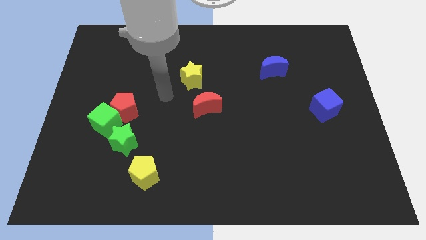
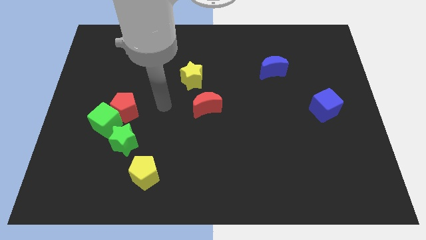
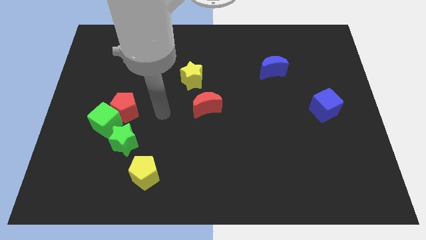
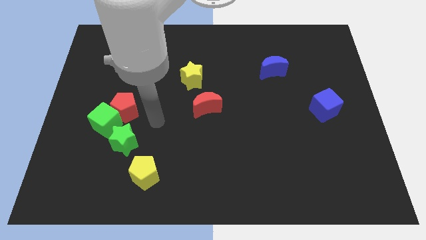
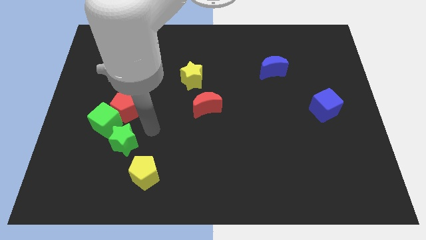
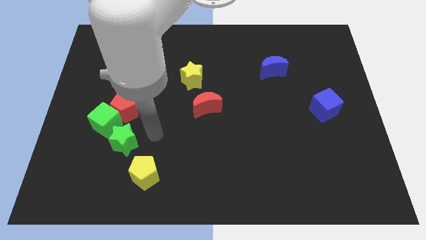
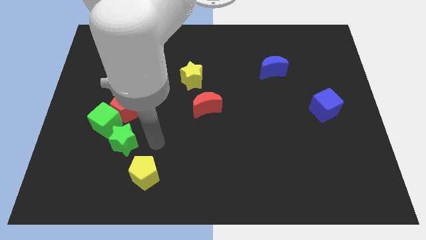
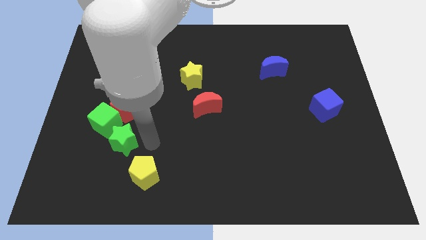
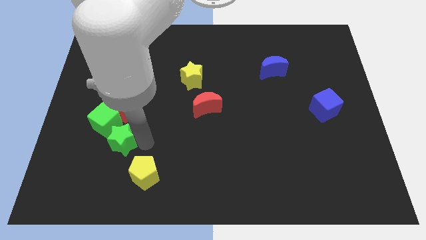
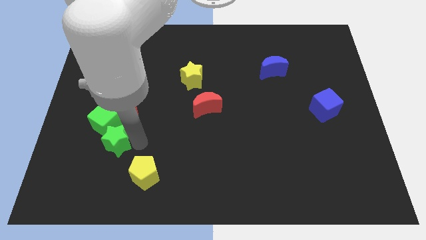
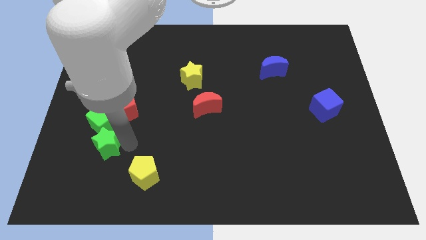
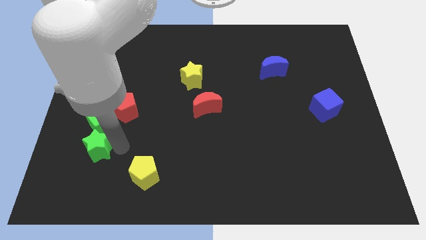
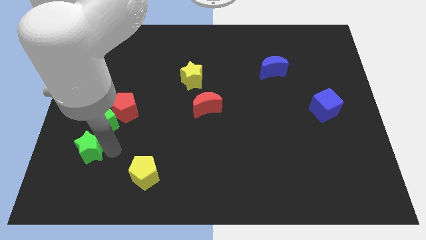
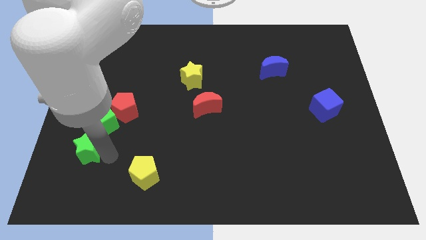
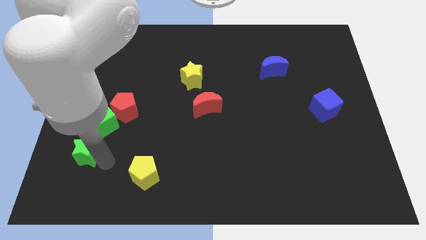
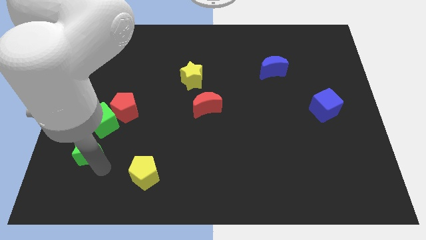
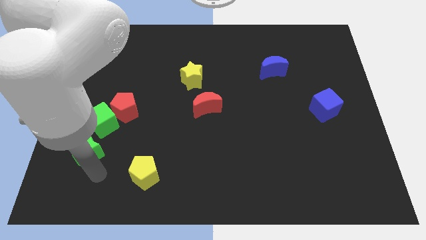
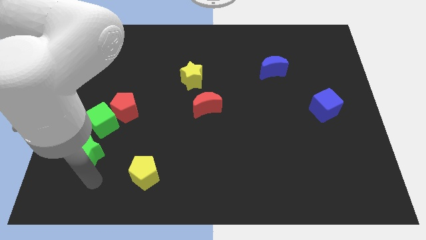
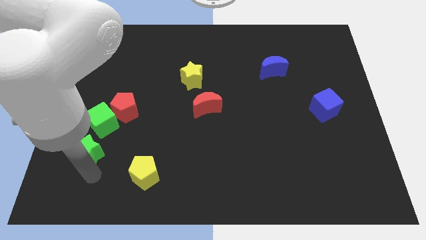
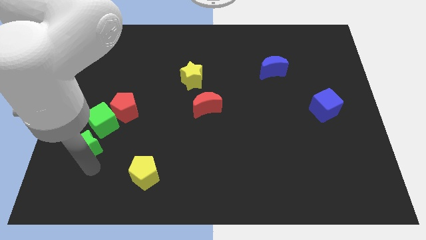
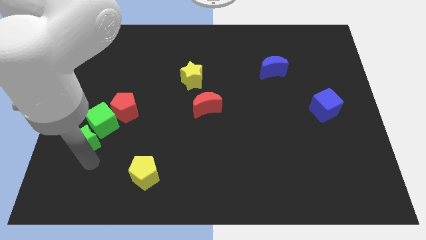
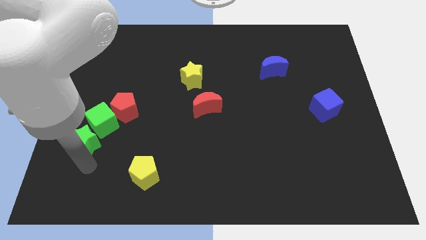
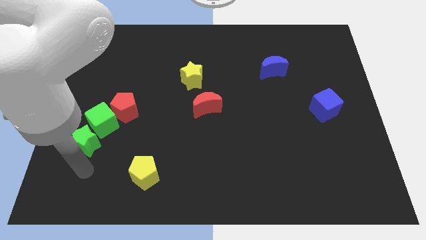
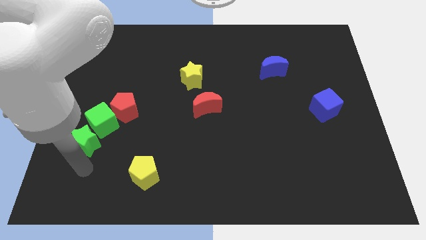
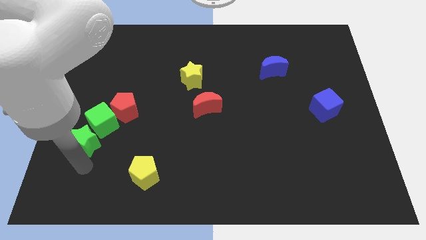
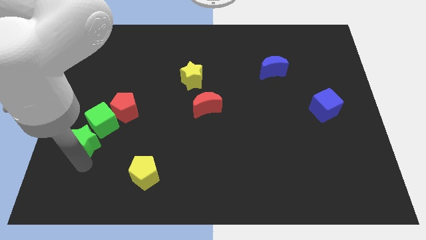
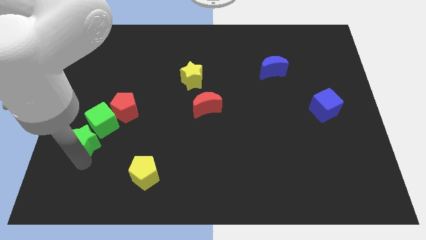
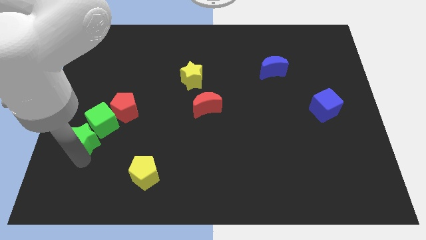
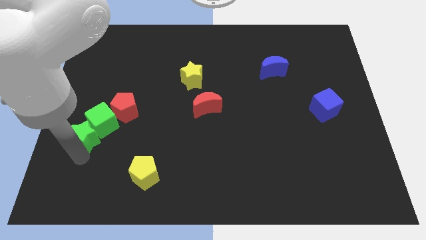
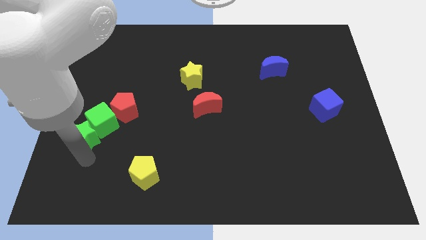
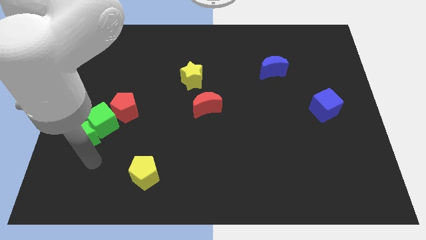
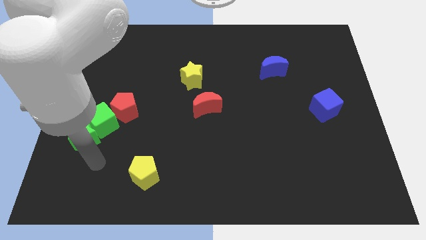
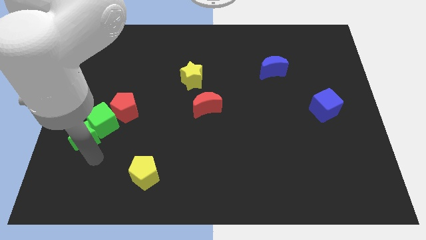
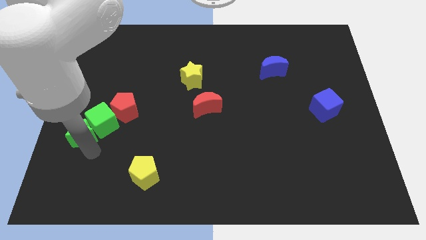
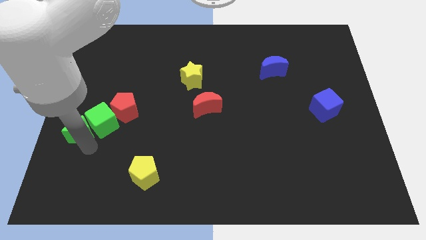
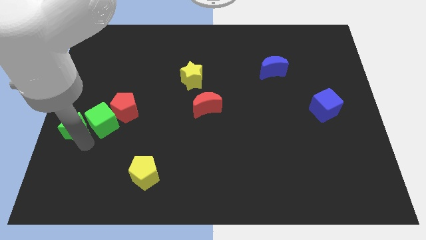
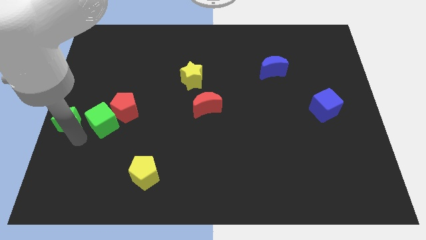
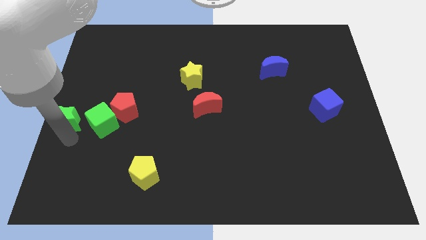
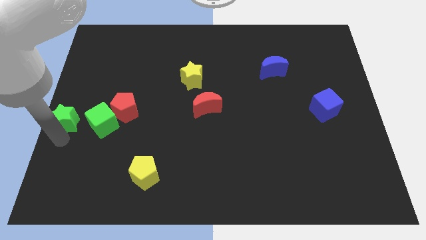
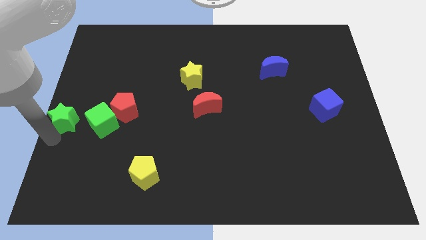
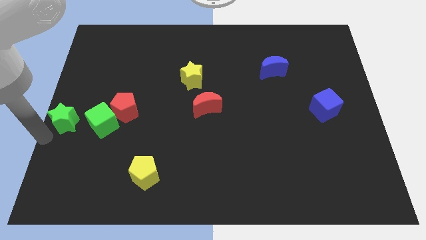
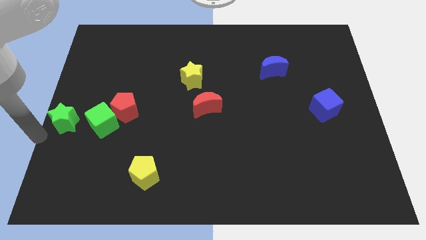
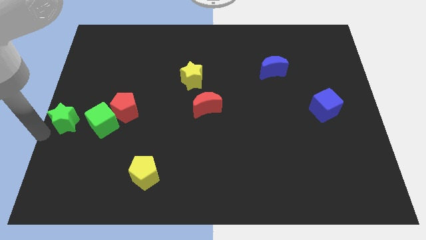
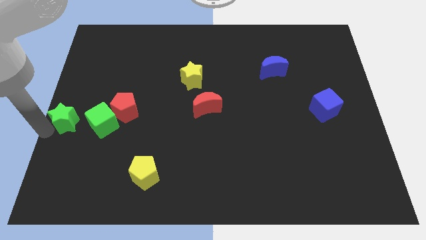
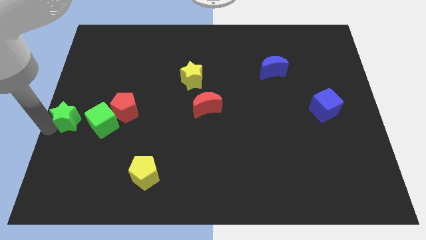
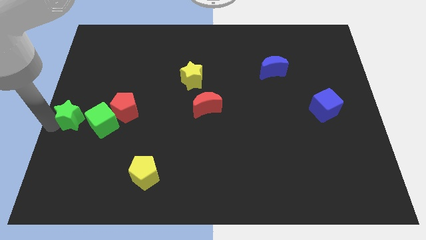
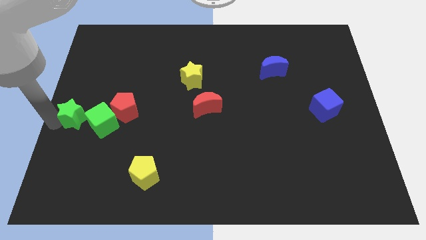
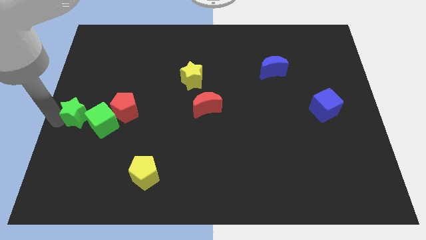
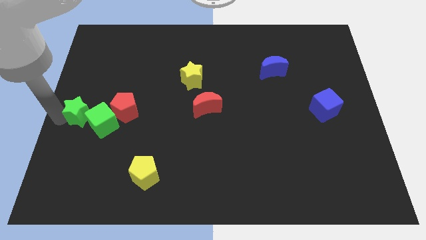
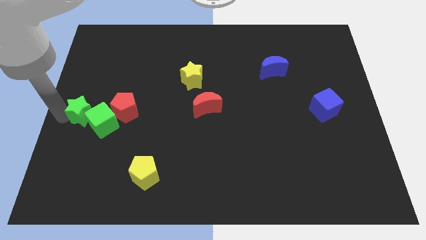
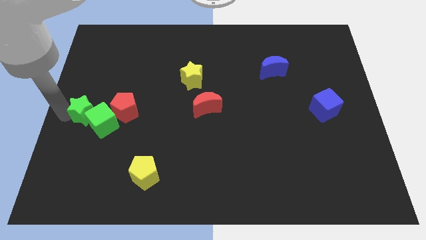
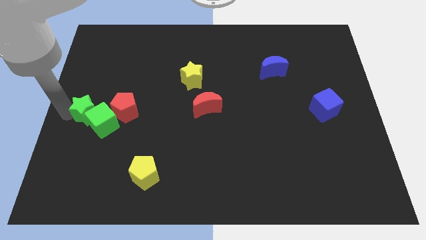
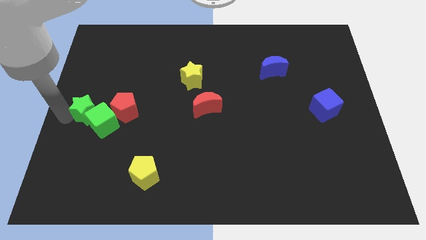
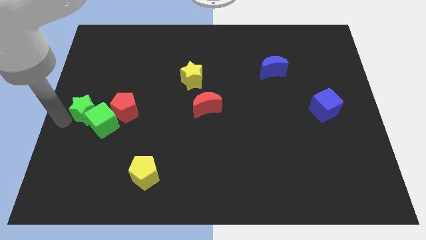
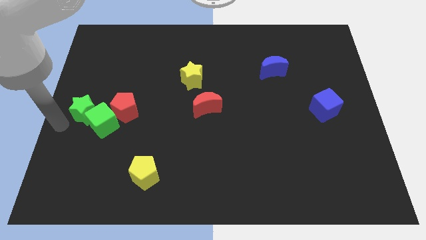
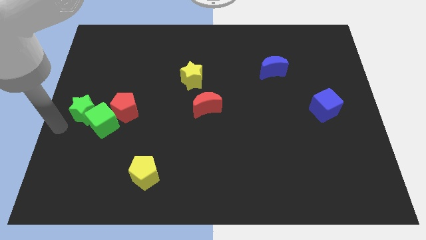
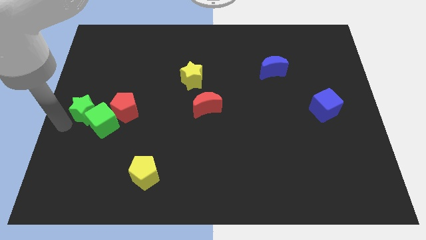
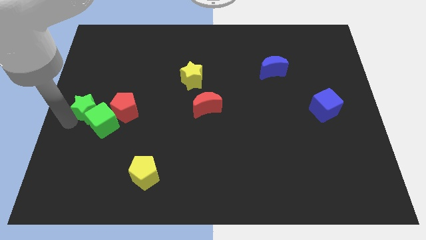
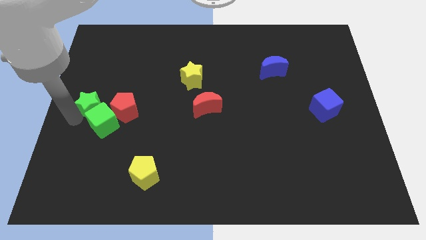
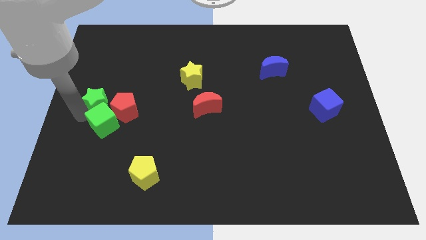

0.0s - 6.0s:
slide the green star to the top left side of the red pentagon

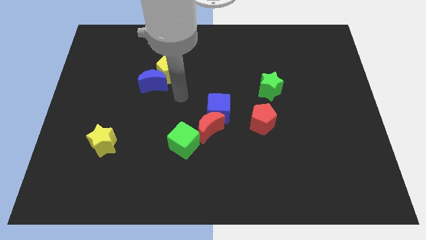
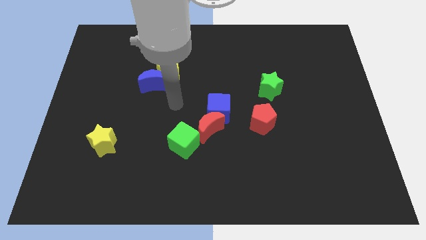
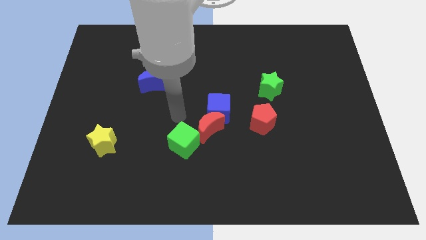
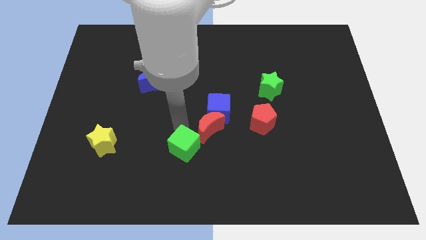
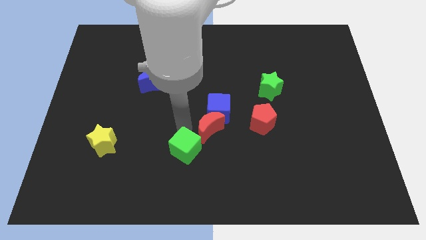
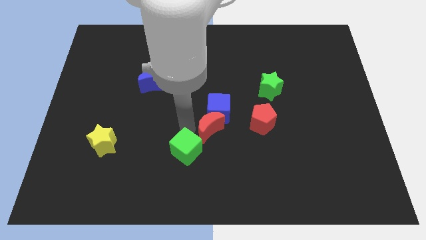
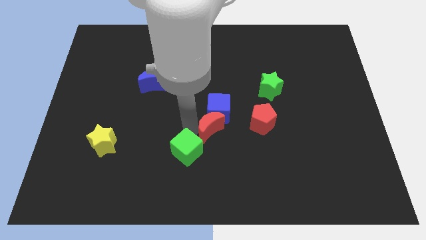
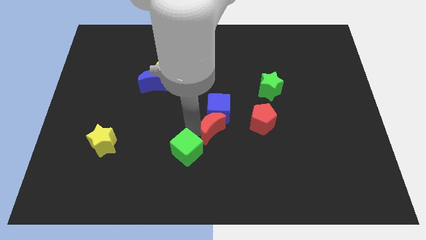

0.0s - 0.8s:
put the red moon to the bottom right of the blue cube
